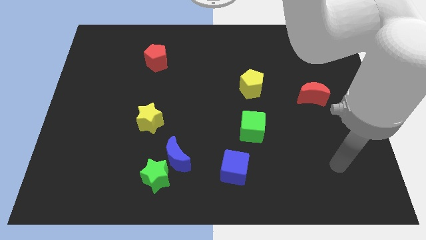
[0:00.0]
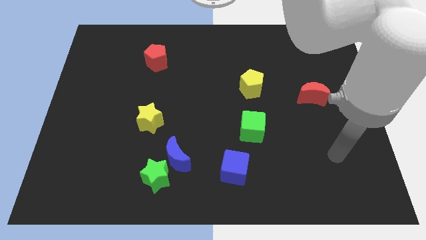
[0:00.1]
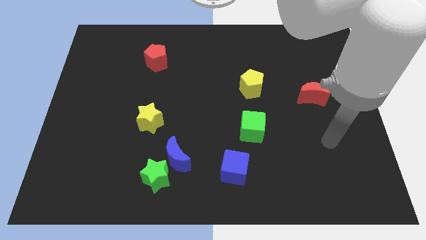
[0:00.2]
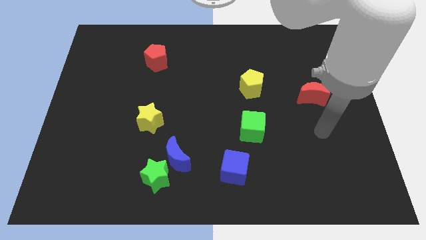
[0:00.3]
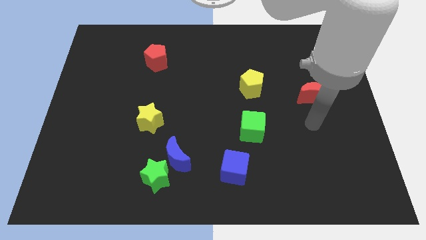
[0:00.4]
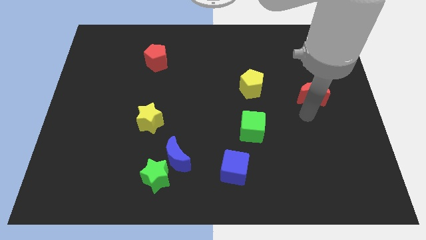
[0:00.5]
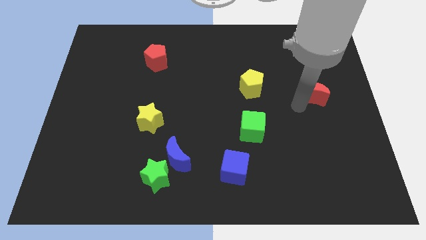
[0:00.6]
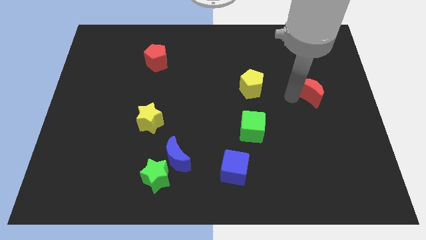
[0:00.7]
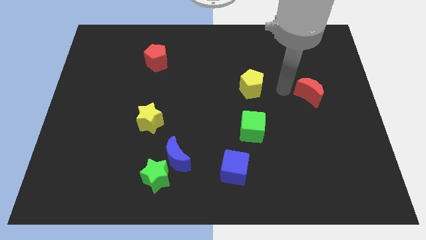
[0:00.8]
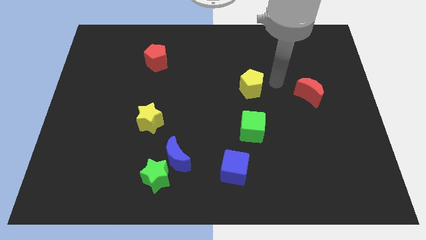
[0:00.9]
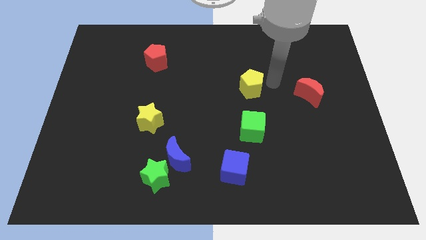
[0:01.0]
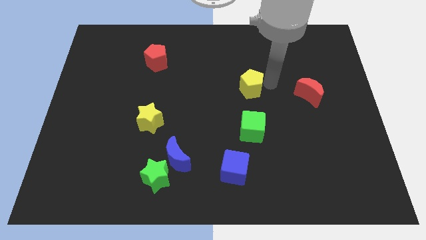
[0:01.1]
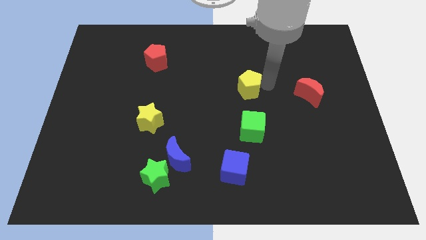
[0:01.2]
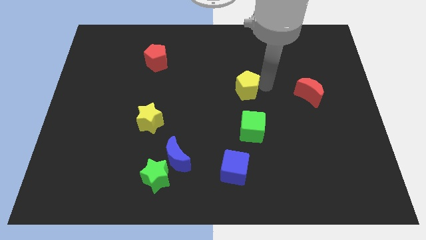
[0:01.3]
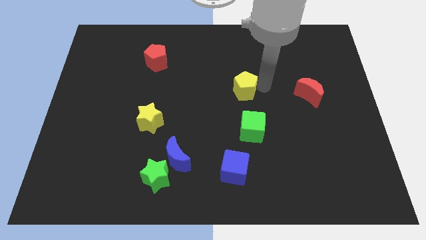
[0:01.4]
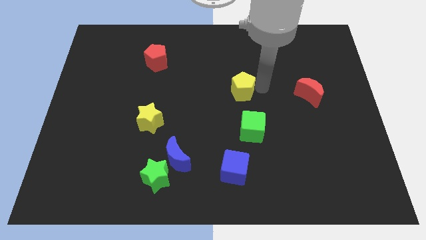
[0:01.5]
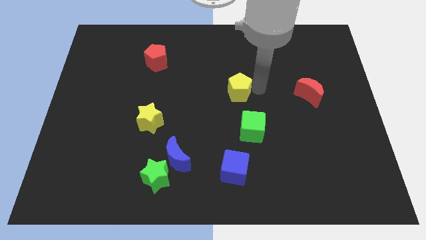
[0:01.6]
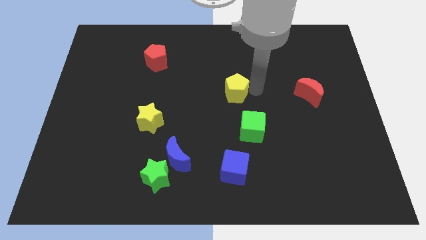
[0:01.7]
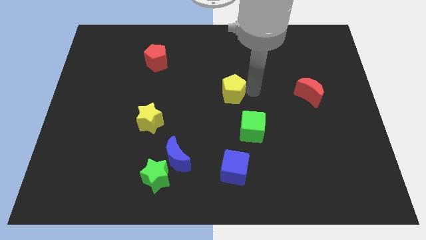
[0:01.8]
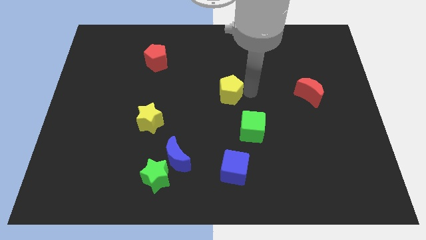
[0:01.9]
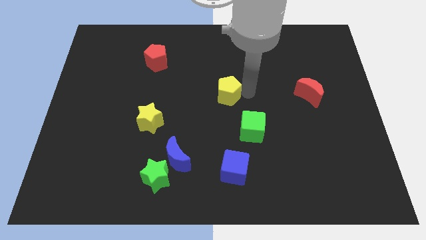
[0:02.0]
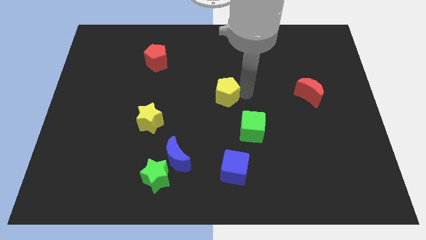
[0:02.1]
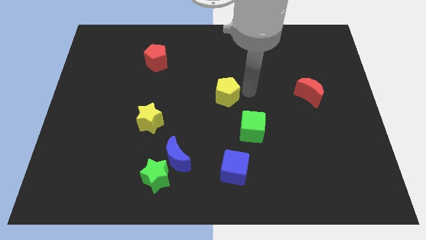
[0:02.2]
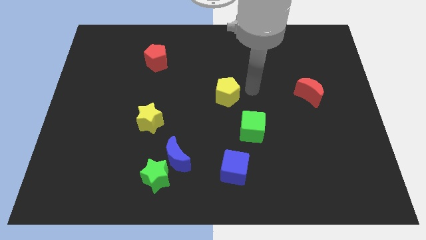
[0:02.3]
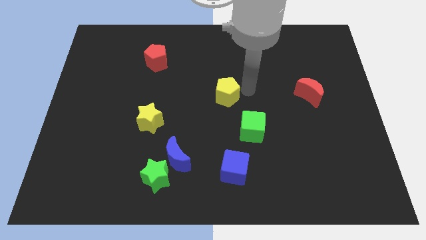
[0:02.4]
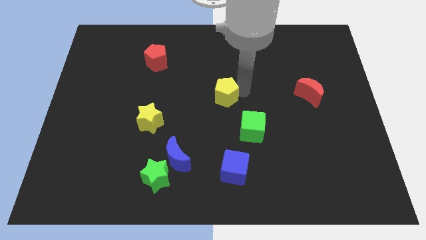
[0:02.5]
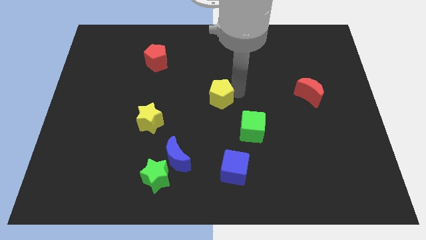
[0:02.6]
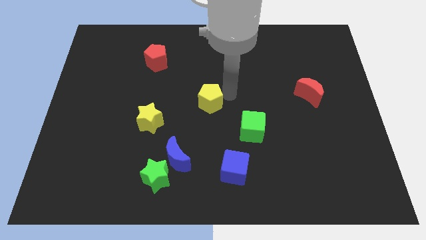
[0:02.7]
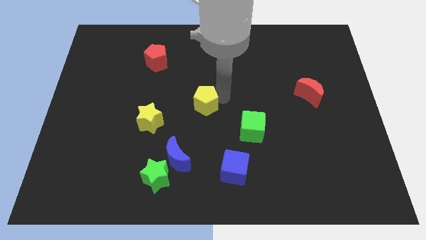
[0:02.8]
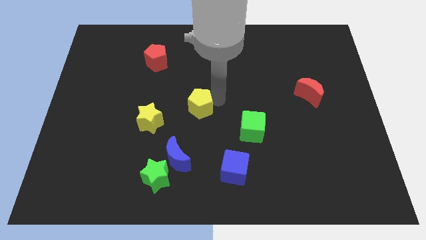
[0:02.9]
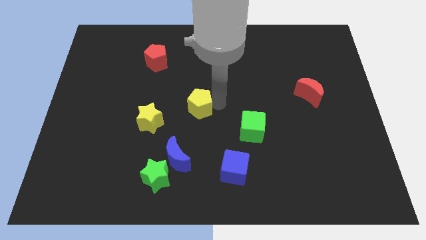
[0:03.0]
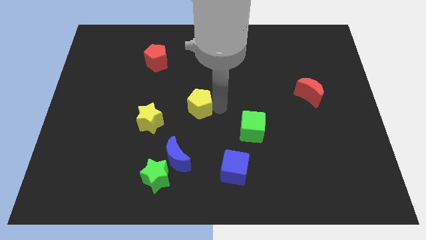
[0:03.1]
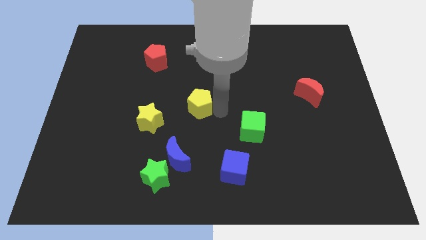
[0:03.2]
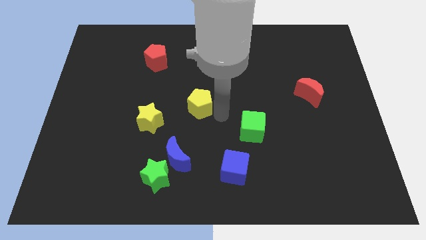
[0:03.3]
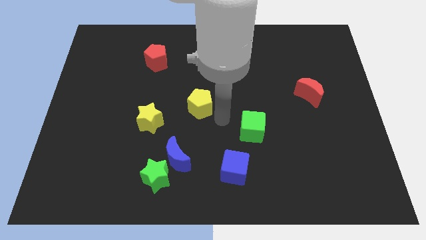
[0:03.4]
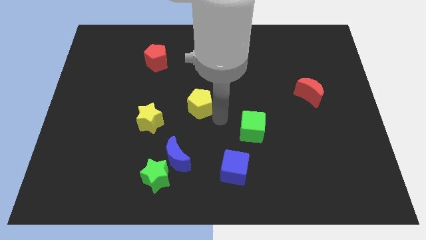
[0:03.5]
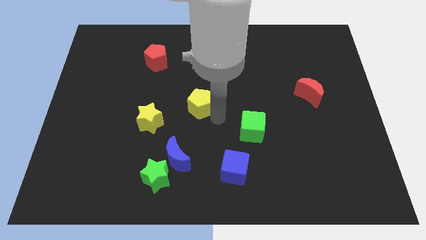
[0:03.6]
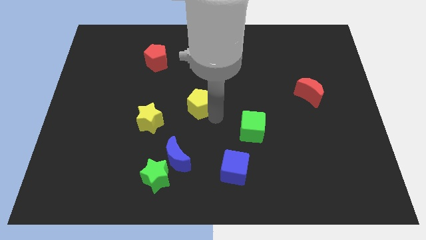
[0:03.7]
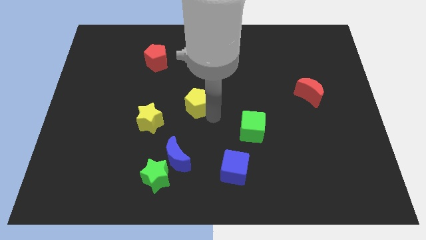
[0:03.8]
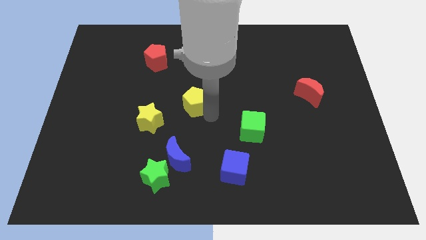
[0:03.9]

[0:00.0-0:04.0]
push the yellow pentagon diagonally up and to the right of the yellow star

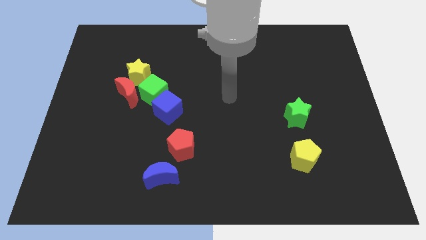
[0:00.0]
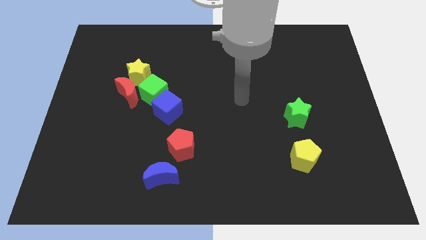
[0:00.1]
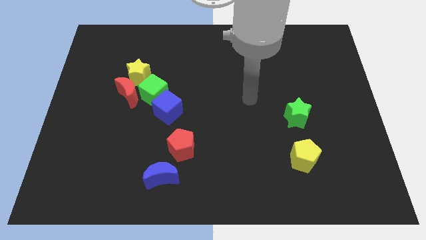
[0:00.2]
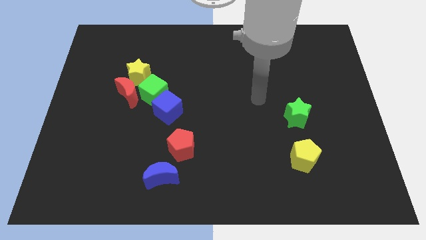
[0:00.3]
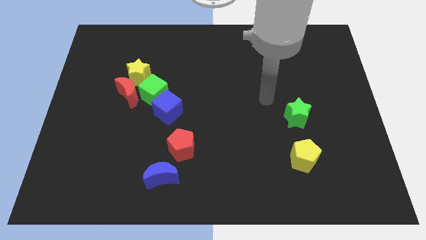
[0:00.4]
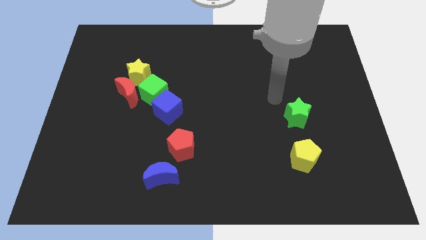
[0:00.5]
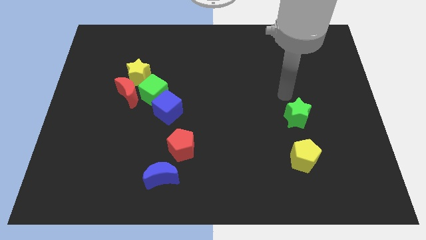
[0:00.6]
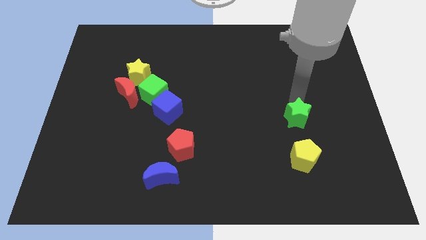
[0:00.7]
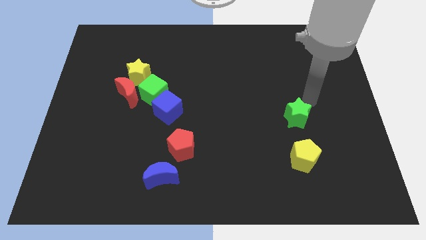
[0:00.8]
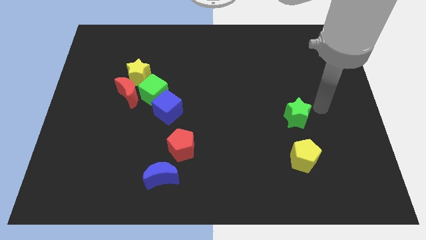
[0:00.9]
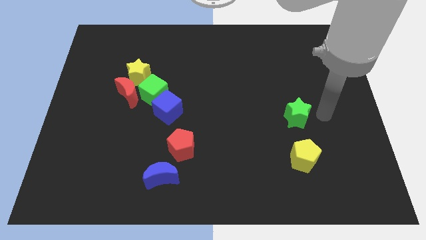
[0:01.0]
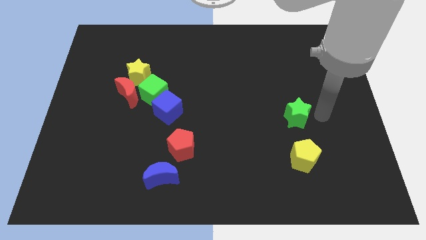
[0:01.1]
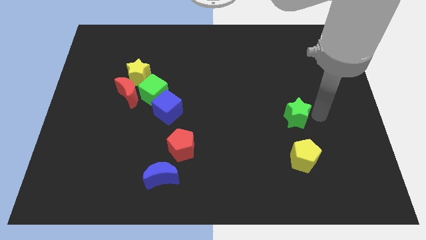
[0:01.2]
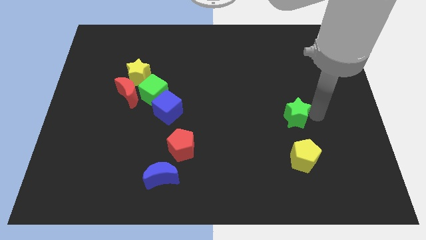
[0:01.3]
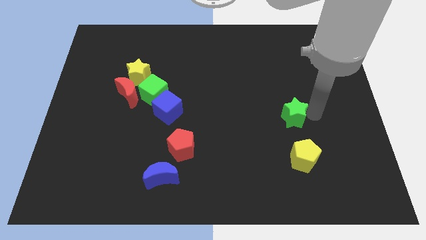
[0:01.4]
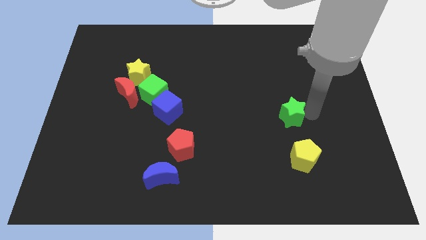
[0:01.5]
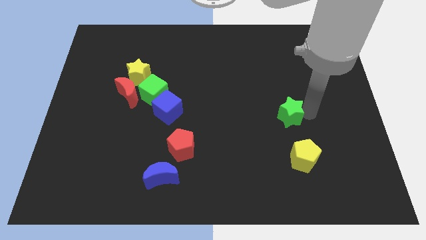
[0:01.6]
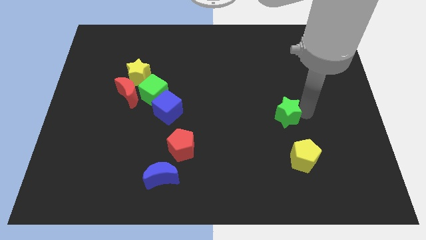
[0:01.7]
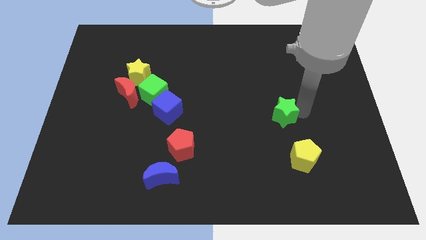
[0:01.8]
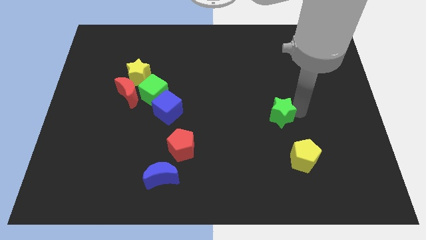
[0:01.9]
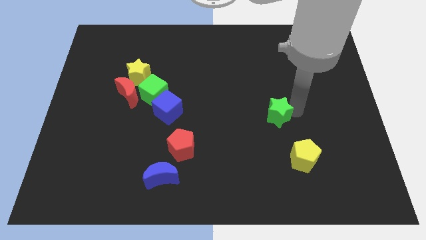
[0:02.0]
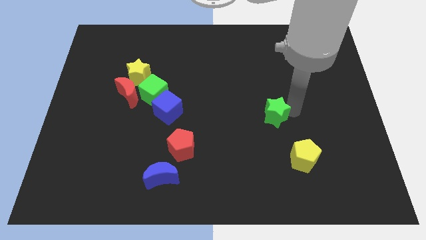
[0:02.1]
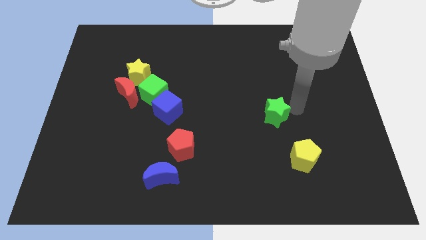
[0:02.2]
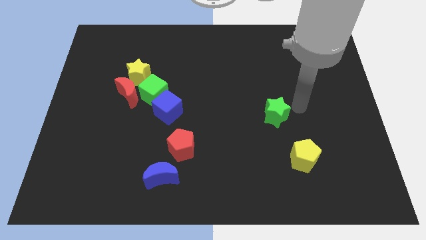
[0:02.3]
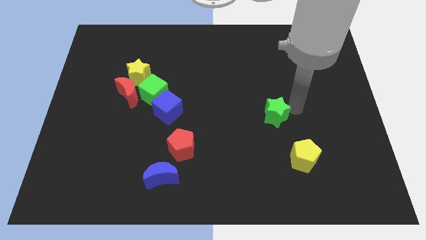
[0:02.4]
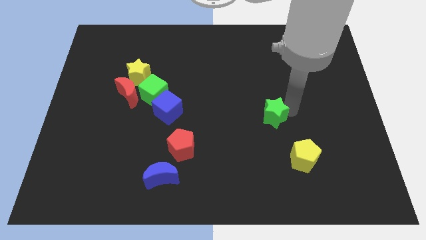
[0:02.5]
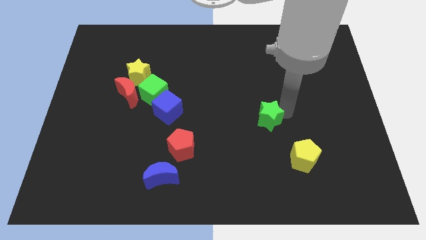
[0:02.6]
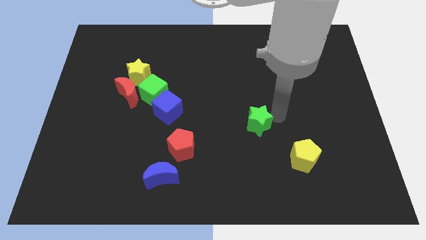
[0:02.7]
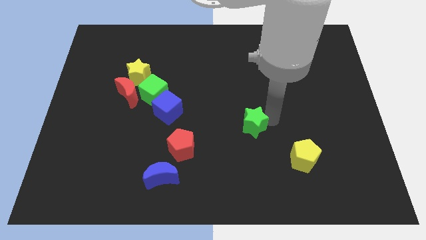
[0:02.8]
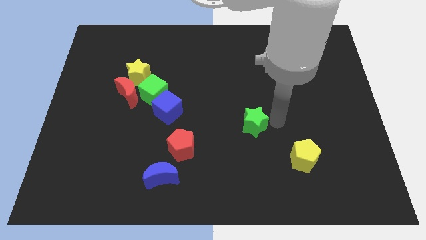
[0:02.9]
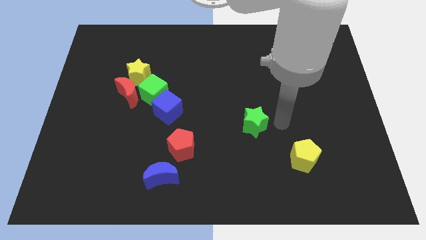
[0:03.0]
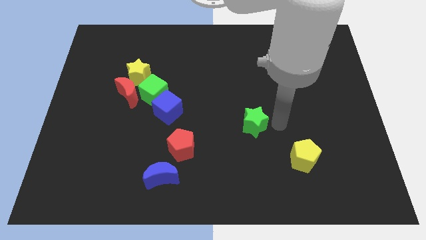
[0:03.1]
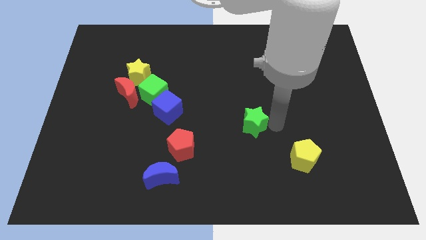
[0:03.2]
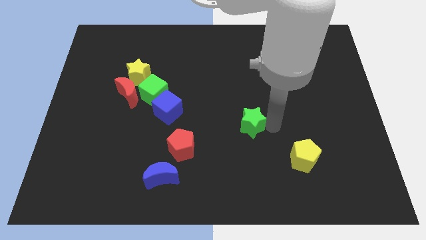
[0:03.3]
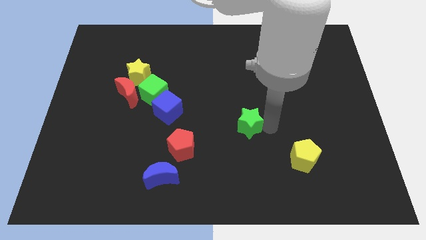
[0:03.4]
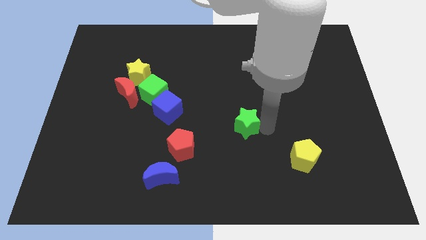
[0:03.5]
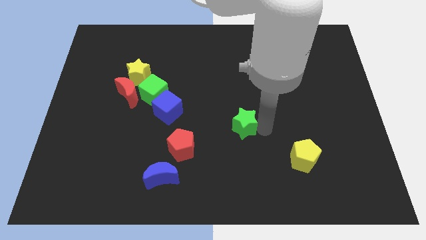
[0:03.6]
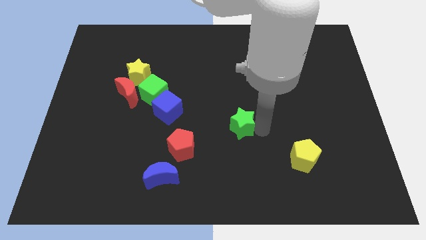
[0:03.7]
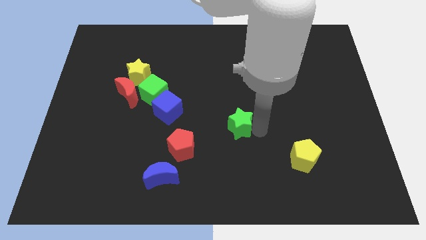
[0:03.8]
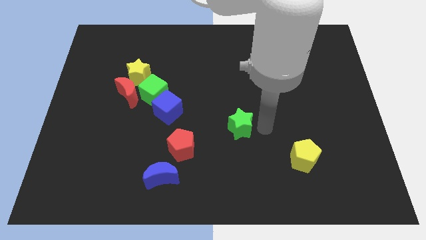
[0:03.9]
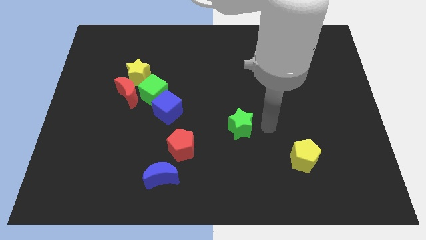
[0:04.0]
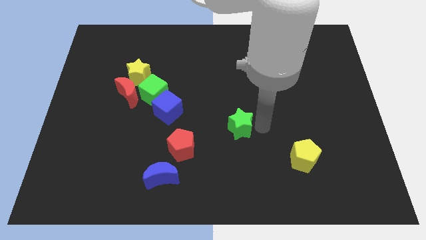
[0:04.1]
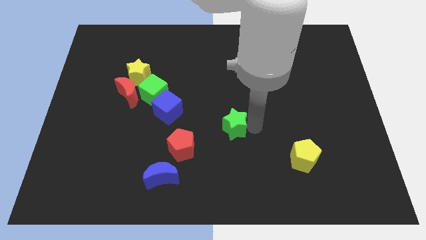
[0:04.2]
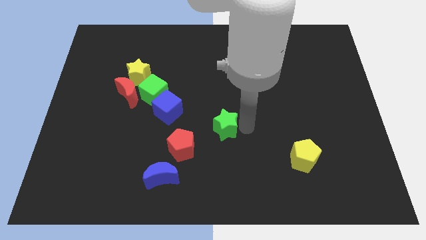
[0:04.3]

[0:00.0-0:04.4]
put the green star to the top right side of the red pentagon

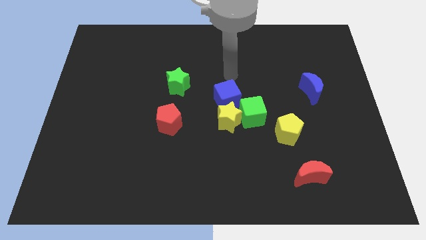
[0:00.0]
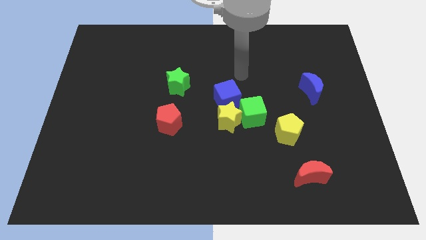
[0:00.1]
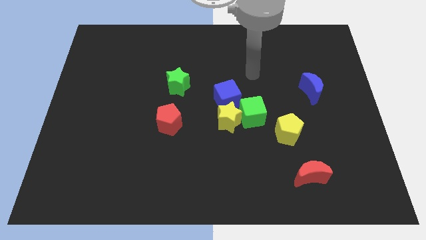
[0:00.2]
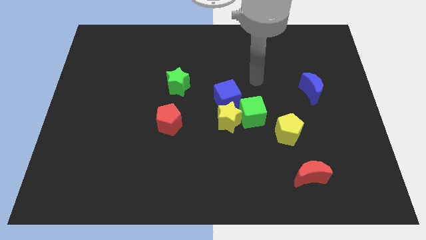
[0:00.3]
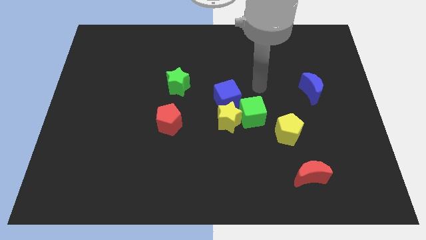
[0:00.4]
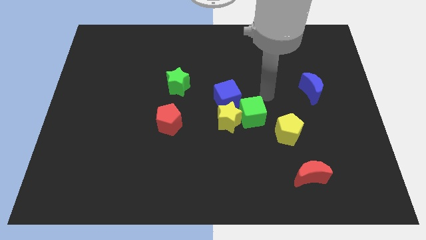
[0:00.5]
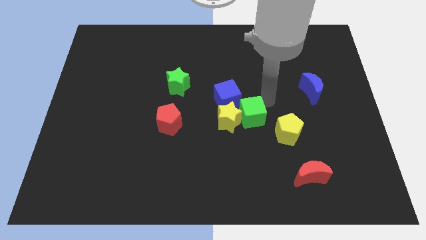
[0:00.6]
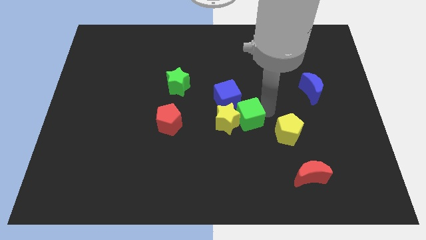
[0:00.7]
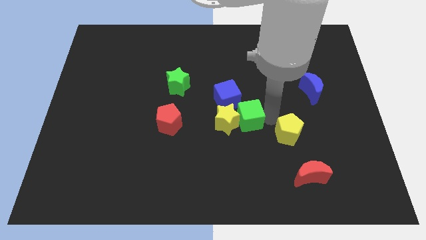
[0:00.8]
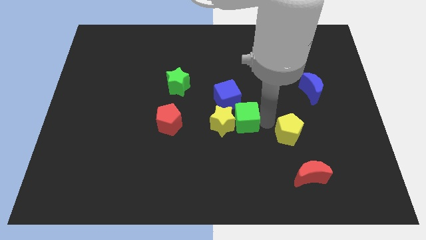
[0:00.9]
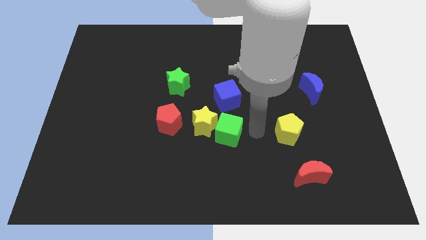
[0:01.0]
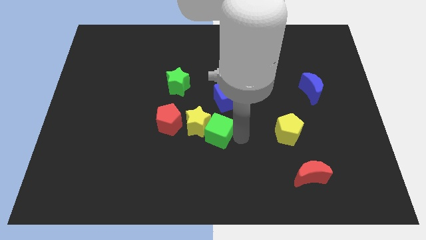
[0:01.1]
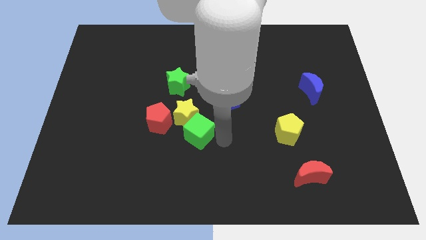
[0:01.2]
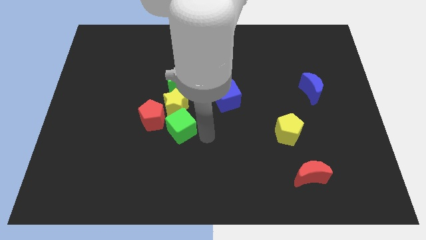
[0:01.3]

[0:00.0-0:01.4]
move the yellow star diagonally down and to the left of the green star
